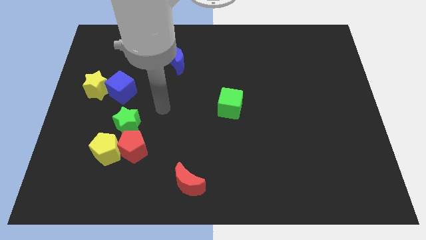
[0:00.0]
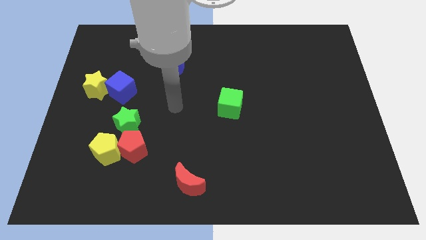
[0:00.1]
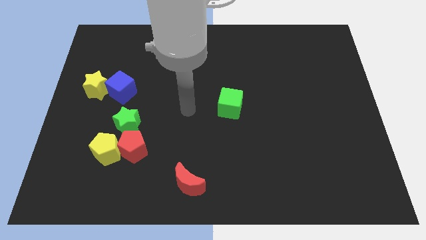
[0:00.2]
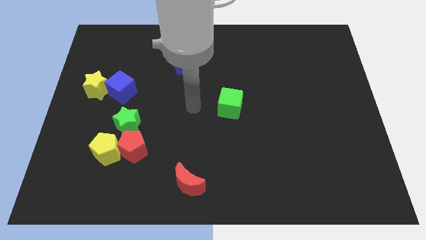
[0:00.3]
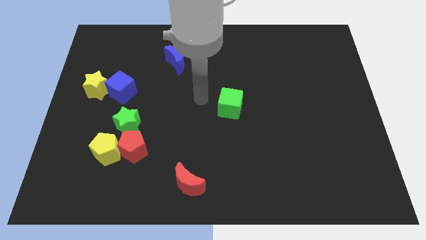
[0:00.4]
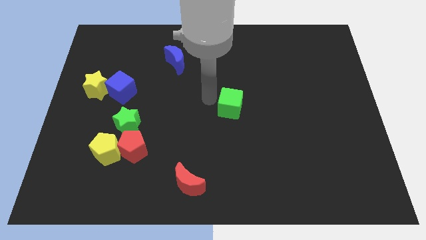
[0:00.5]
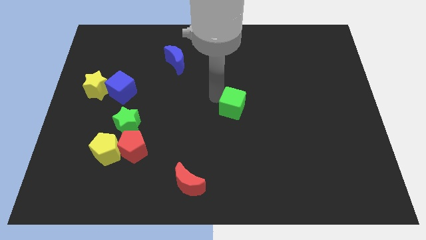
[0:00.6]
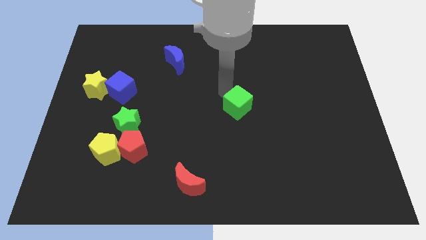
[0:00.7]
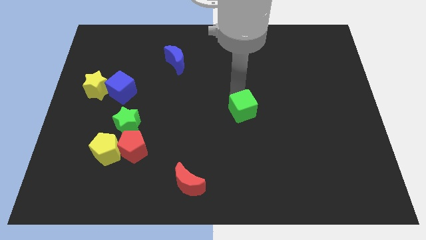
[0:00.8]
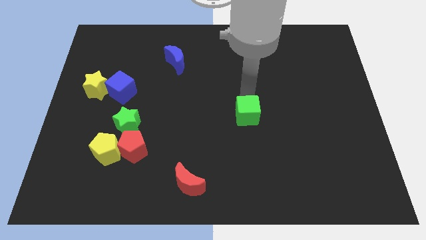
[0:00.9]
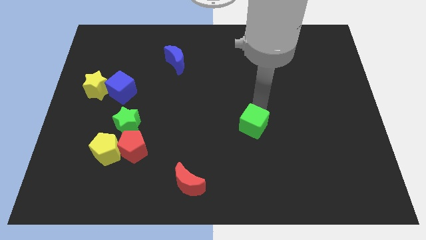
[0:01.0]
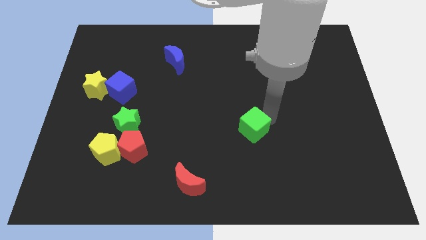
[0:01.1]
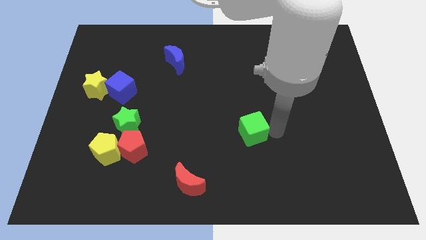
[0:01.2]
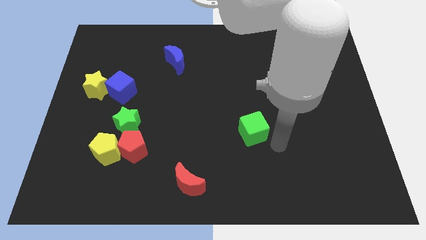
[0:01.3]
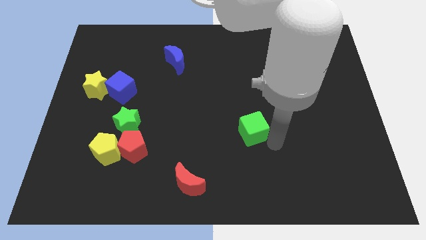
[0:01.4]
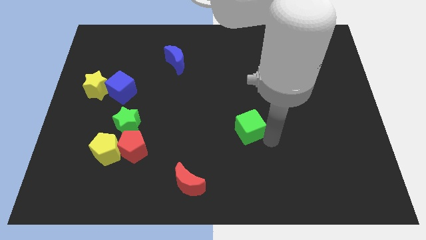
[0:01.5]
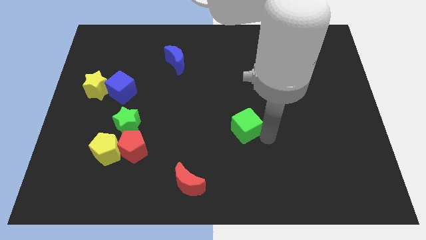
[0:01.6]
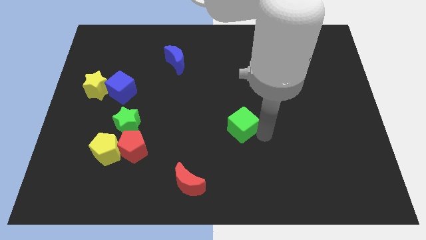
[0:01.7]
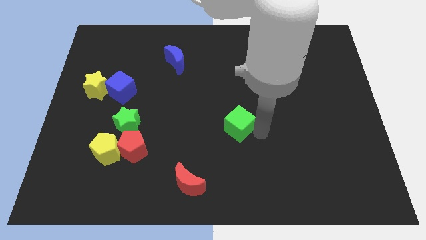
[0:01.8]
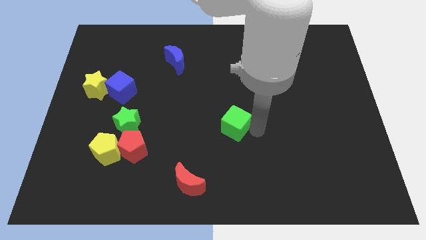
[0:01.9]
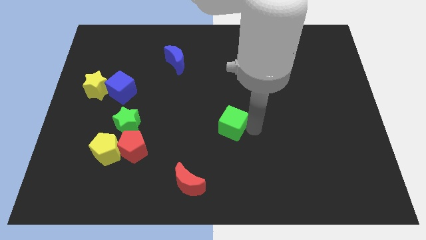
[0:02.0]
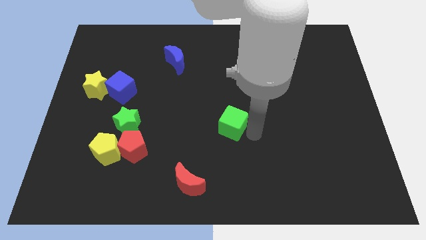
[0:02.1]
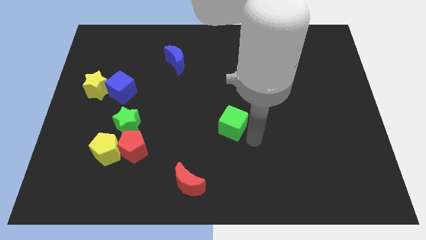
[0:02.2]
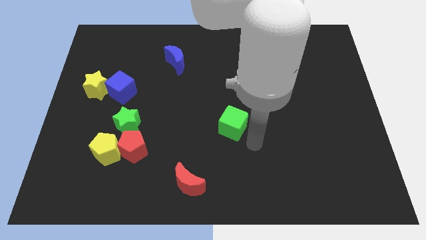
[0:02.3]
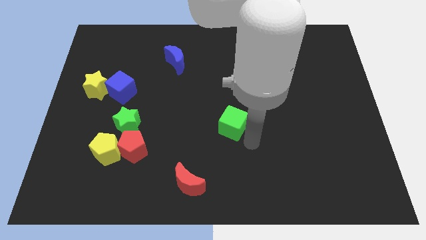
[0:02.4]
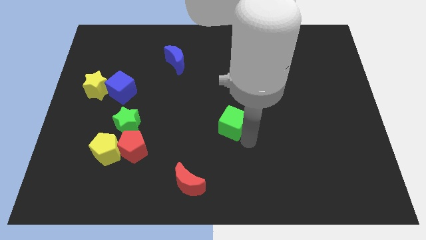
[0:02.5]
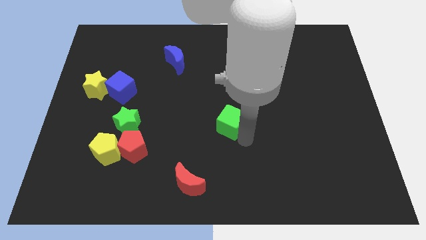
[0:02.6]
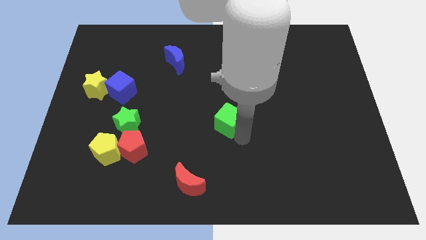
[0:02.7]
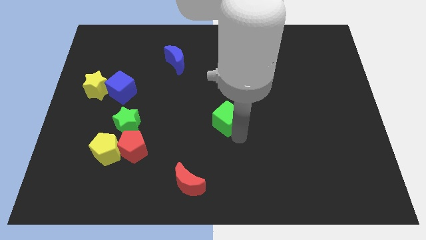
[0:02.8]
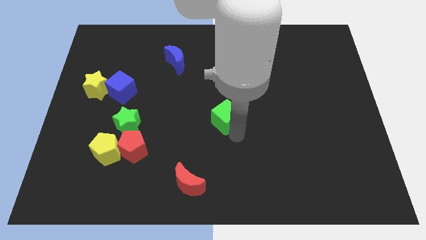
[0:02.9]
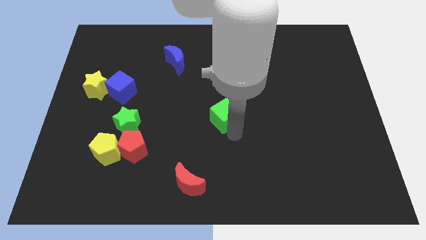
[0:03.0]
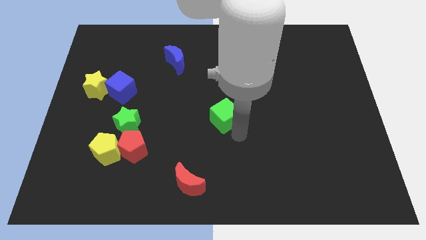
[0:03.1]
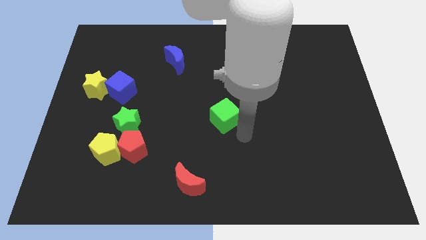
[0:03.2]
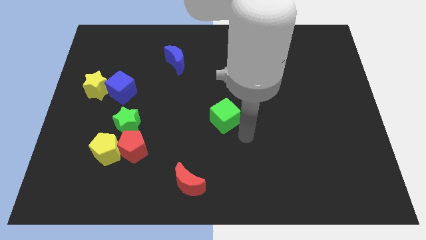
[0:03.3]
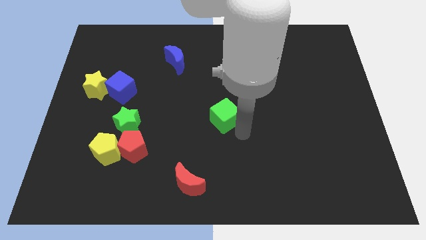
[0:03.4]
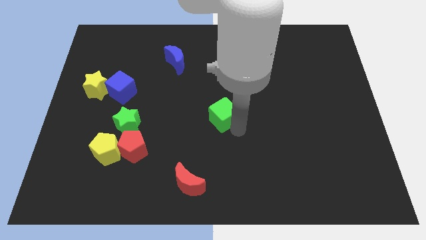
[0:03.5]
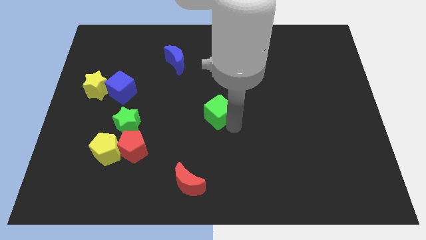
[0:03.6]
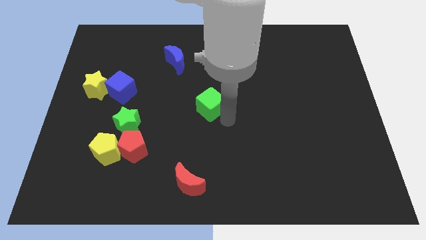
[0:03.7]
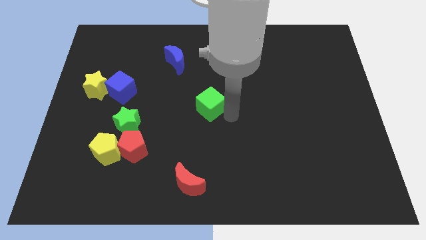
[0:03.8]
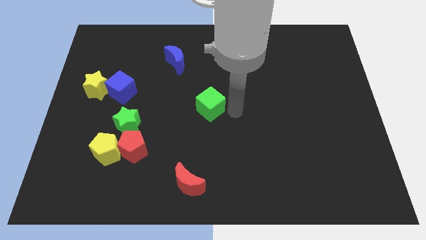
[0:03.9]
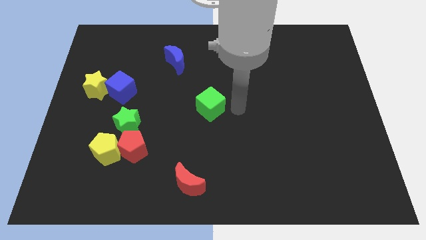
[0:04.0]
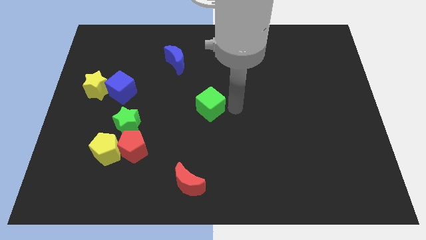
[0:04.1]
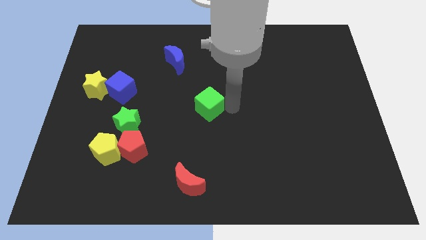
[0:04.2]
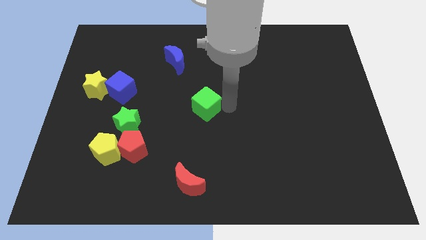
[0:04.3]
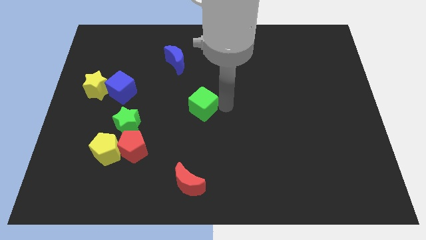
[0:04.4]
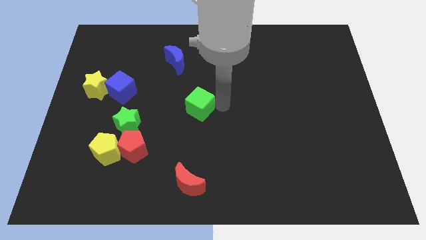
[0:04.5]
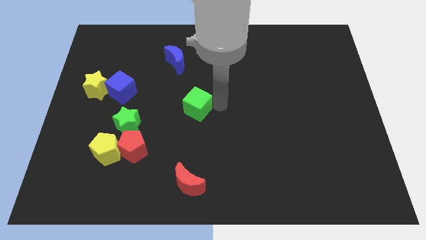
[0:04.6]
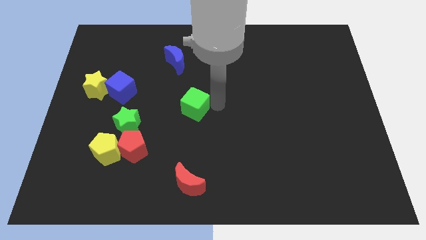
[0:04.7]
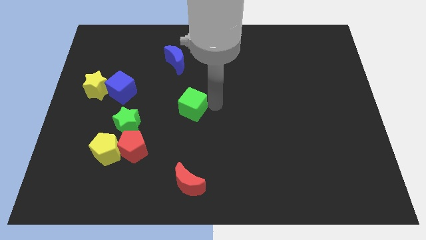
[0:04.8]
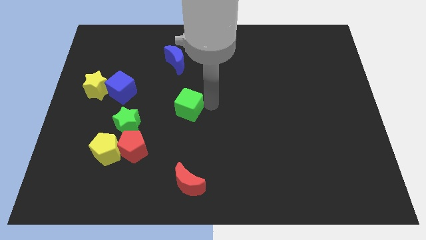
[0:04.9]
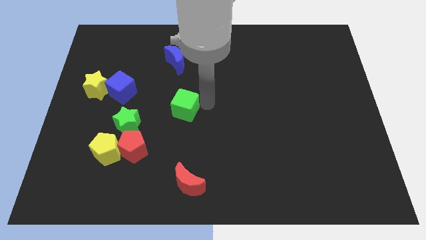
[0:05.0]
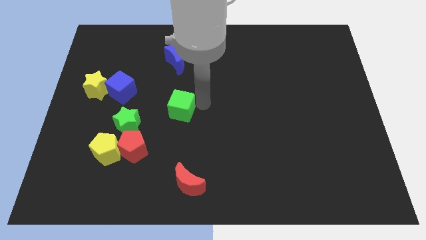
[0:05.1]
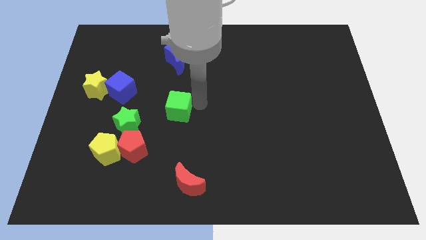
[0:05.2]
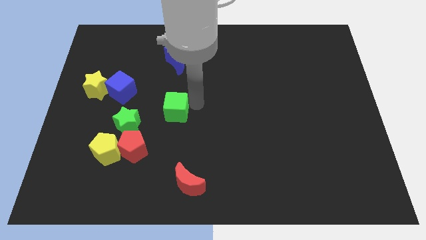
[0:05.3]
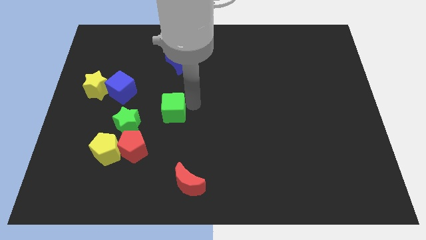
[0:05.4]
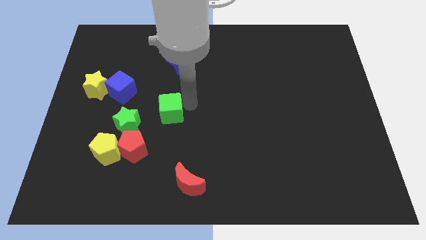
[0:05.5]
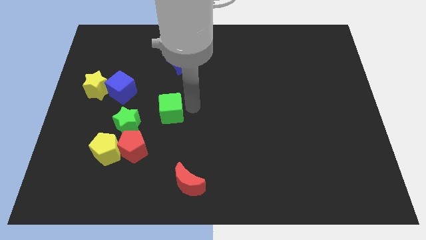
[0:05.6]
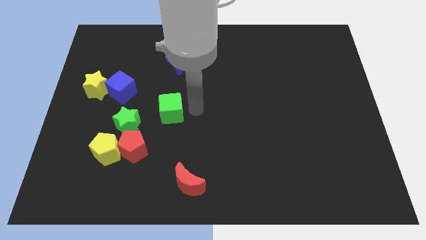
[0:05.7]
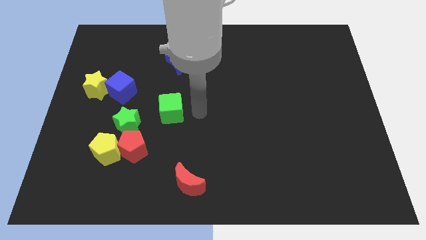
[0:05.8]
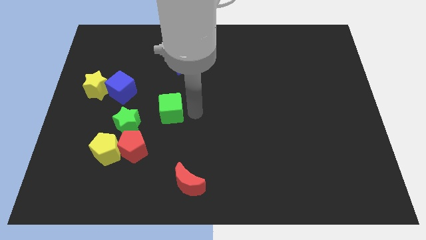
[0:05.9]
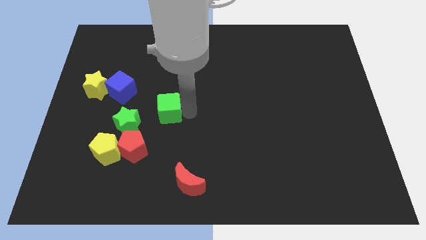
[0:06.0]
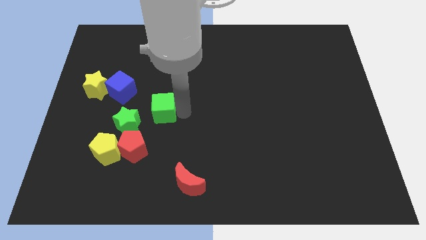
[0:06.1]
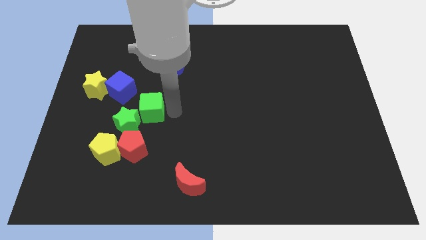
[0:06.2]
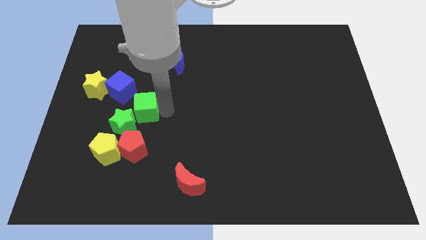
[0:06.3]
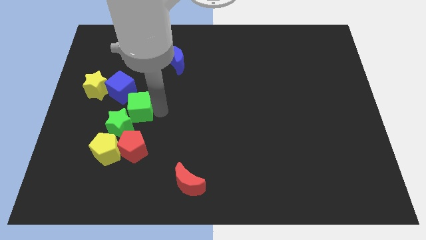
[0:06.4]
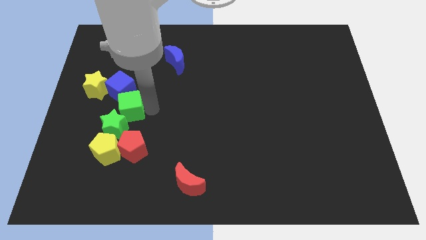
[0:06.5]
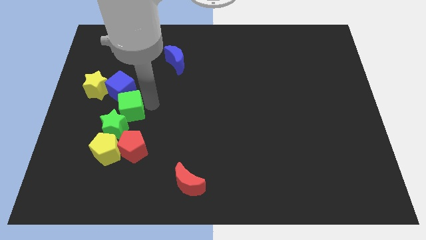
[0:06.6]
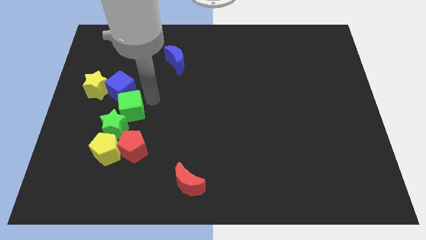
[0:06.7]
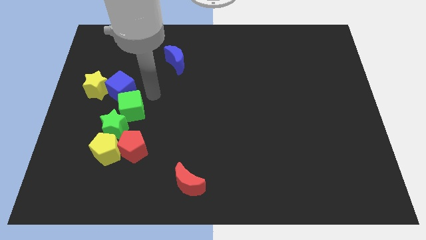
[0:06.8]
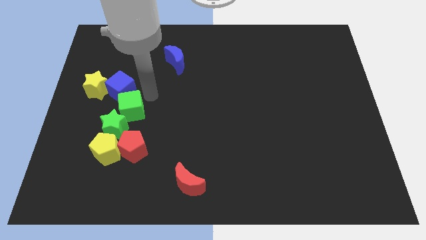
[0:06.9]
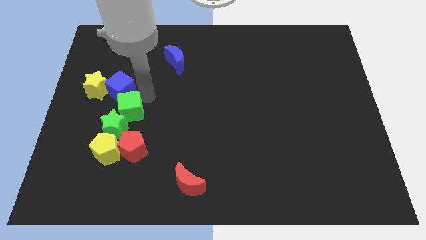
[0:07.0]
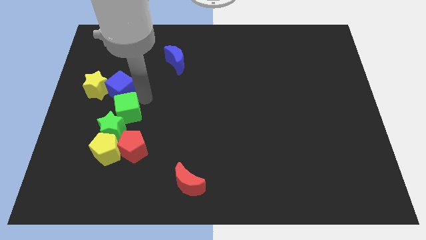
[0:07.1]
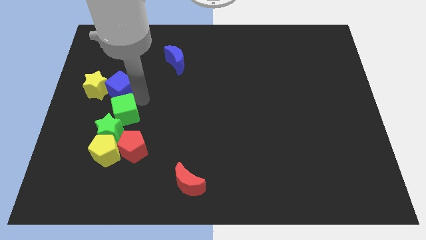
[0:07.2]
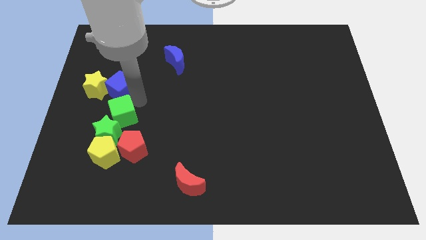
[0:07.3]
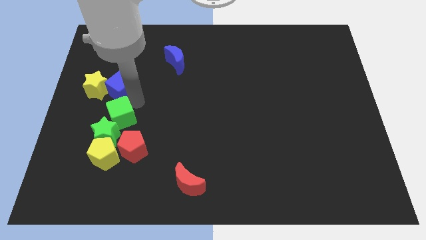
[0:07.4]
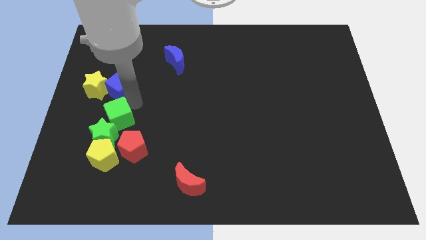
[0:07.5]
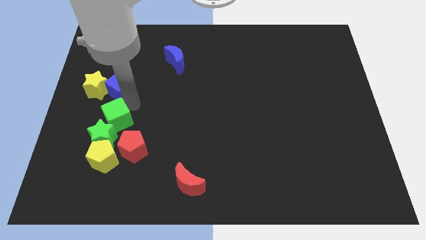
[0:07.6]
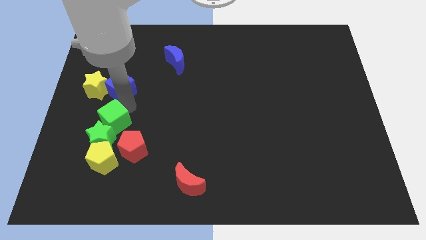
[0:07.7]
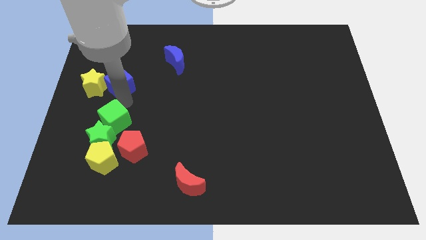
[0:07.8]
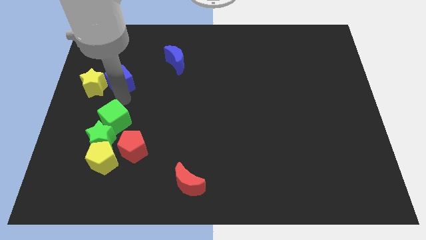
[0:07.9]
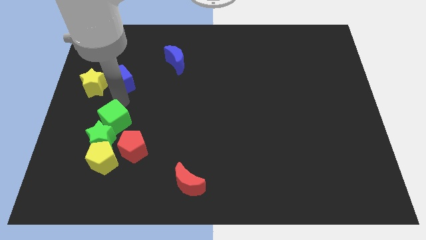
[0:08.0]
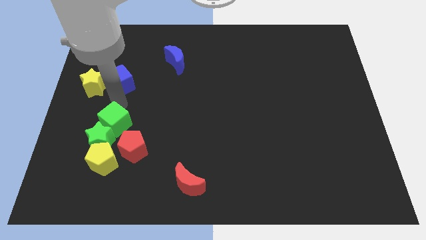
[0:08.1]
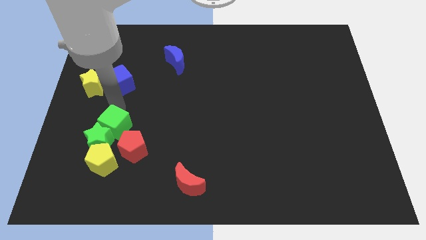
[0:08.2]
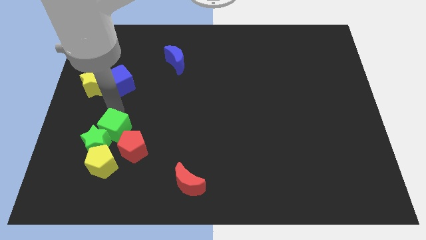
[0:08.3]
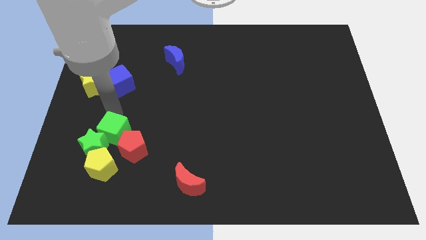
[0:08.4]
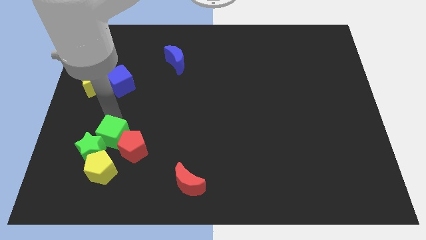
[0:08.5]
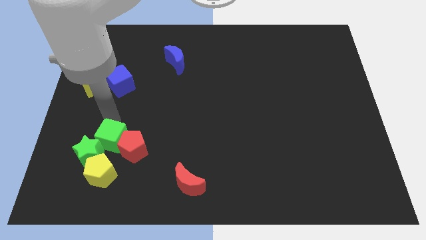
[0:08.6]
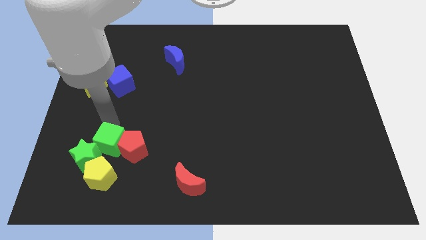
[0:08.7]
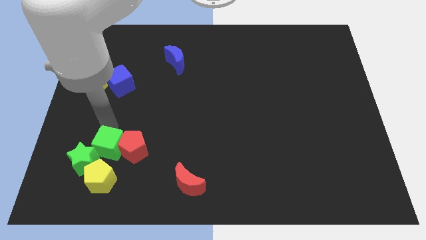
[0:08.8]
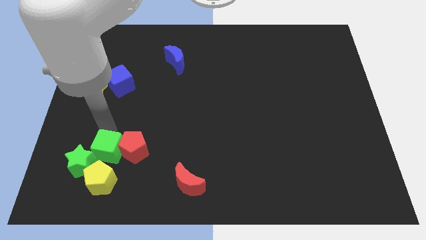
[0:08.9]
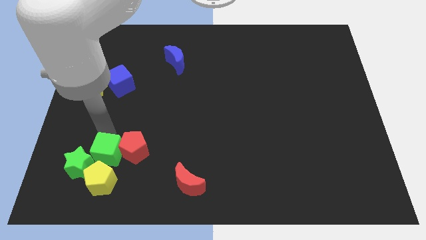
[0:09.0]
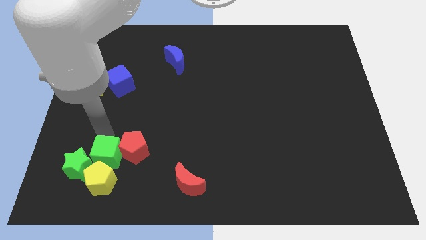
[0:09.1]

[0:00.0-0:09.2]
put the green cube to the yellow pentagon
